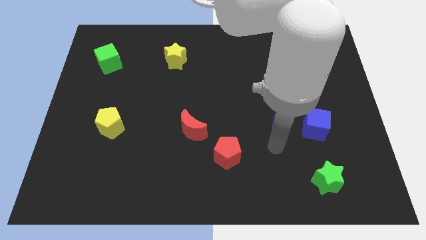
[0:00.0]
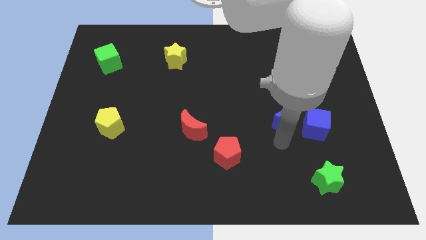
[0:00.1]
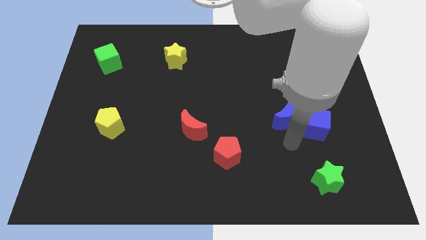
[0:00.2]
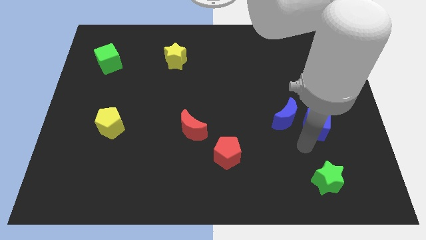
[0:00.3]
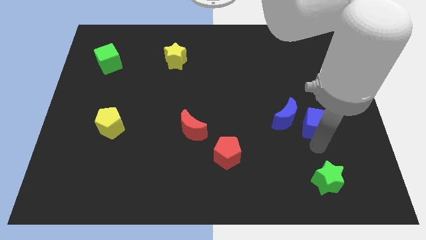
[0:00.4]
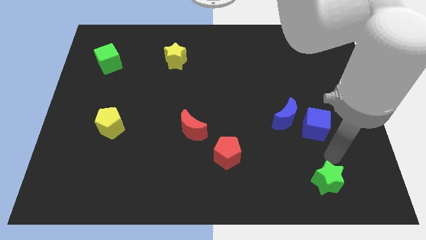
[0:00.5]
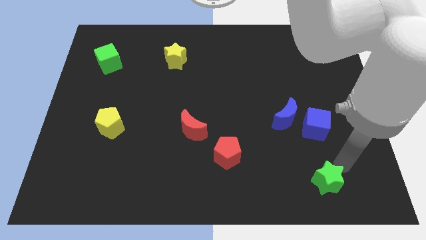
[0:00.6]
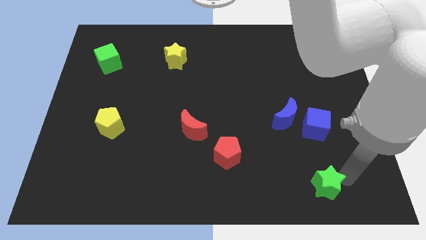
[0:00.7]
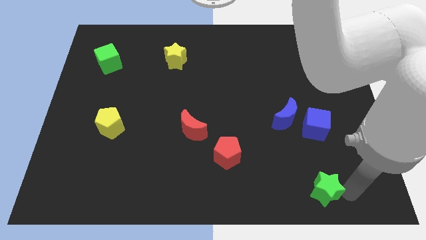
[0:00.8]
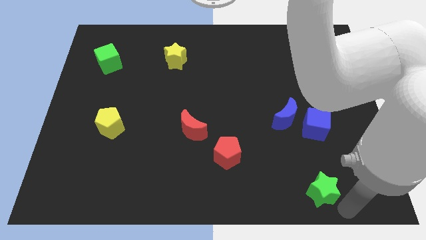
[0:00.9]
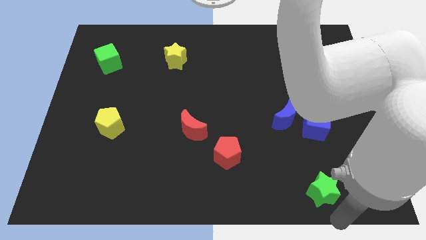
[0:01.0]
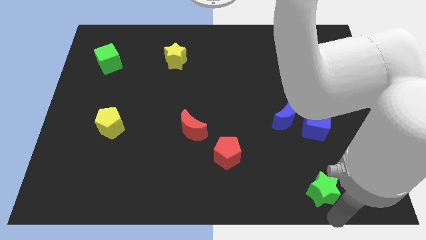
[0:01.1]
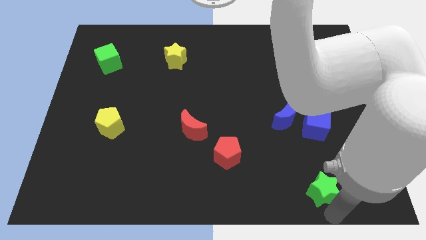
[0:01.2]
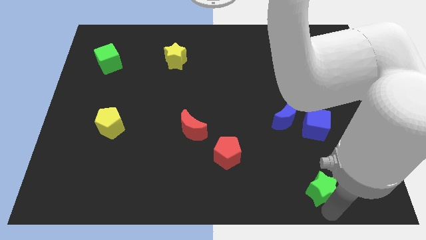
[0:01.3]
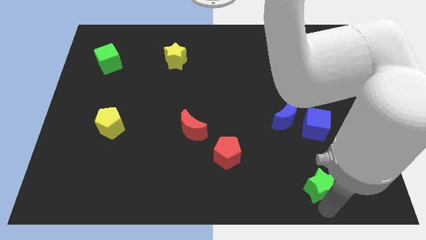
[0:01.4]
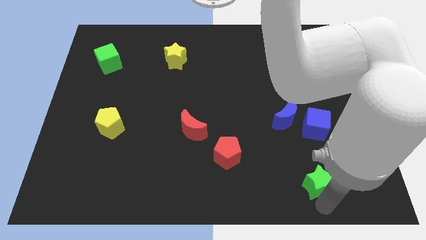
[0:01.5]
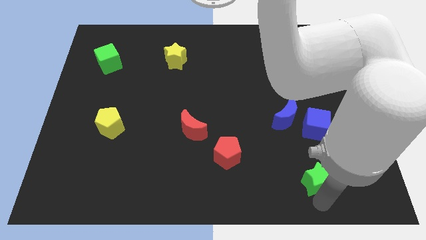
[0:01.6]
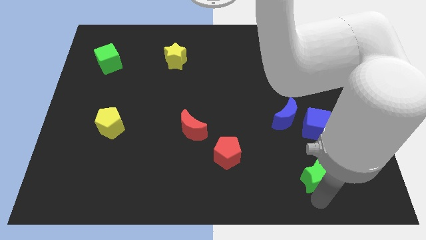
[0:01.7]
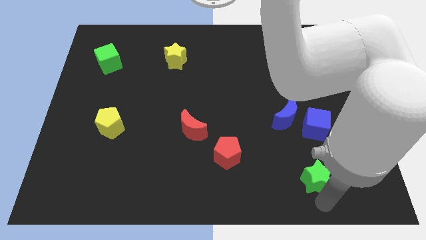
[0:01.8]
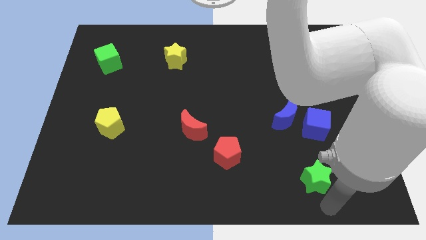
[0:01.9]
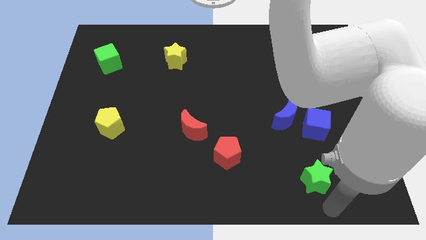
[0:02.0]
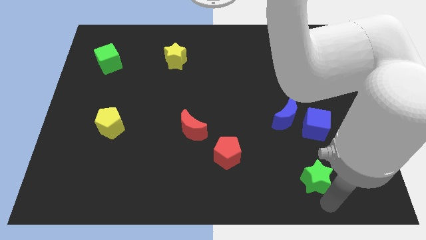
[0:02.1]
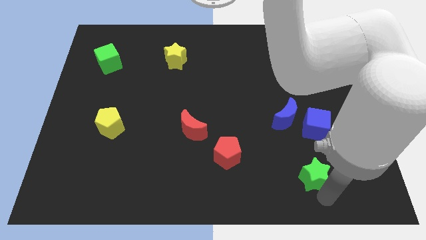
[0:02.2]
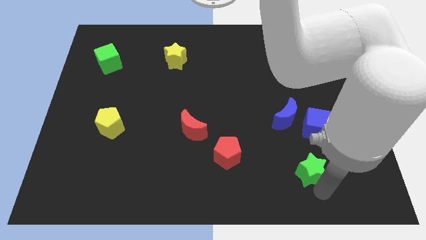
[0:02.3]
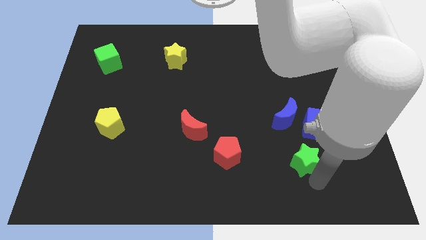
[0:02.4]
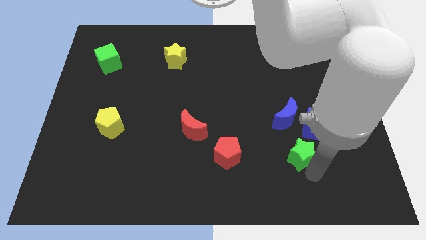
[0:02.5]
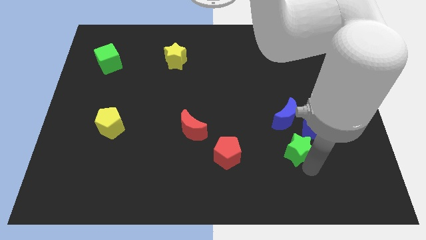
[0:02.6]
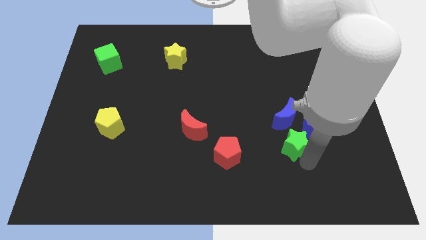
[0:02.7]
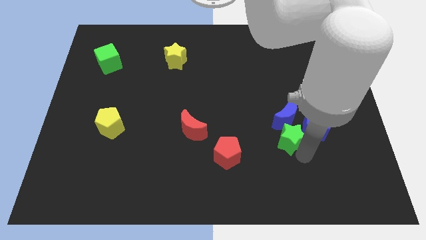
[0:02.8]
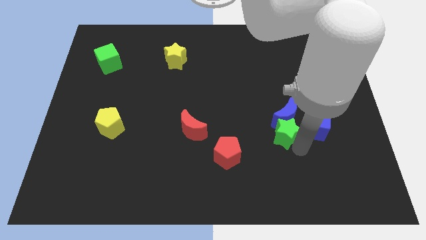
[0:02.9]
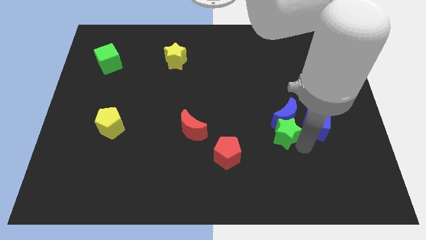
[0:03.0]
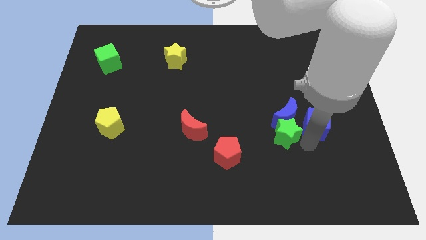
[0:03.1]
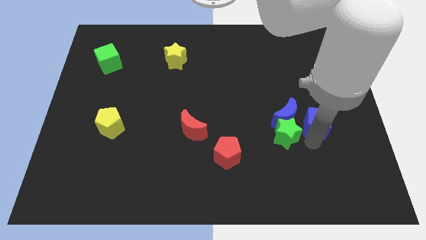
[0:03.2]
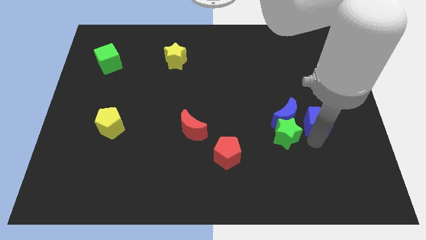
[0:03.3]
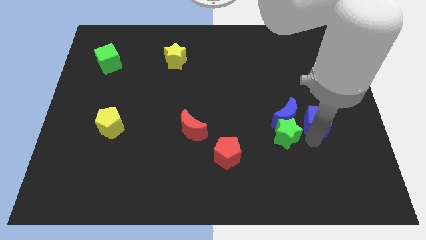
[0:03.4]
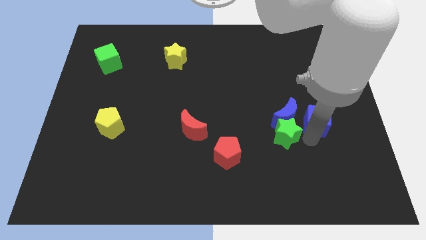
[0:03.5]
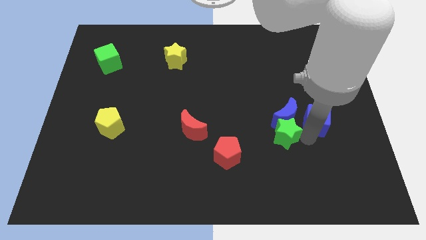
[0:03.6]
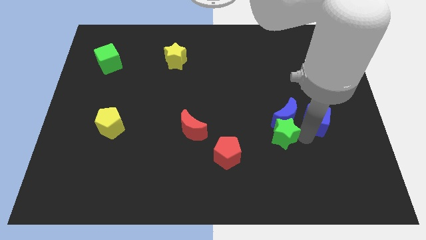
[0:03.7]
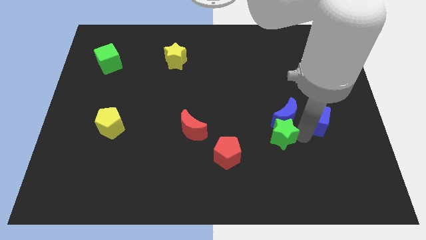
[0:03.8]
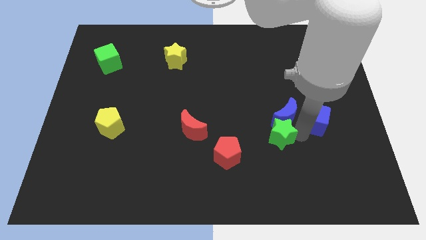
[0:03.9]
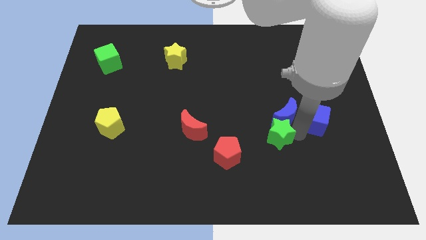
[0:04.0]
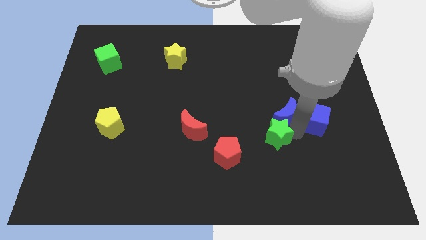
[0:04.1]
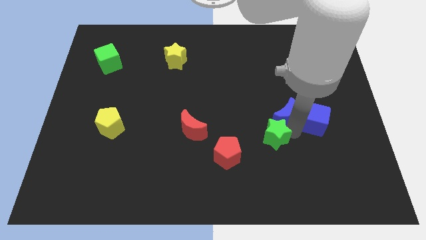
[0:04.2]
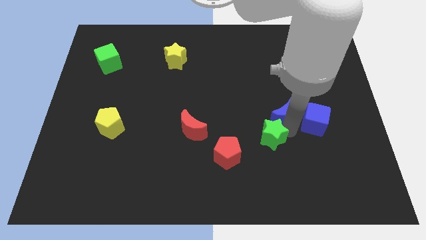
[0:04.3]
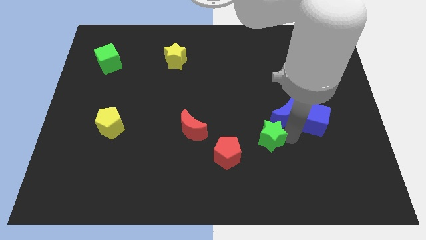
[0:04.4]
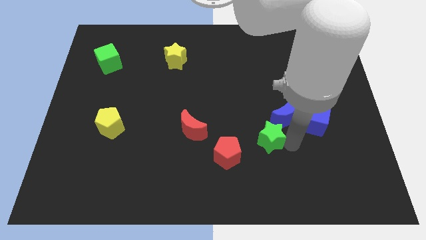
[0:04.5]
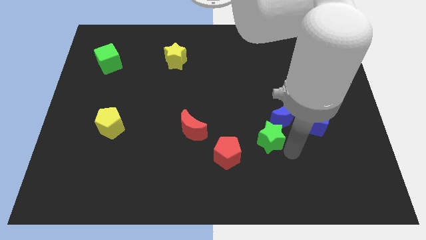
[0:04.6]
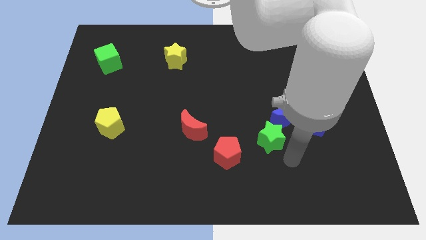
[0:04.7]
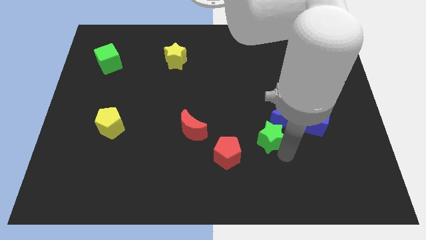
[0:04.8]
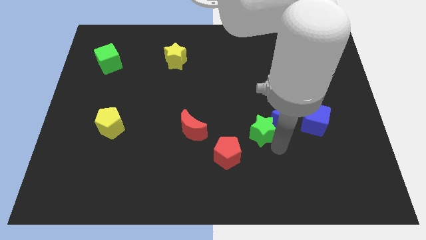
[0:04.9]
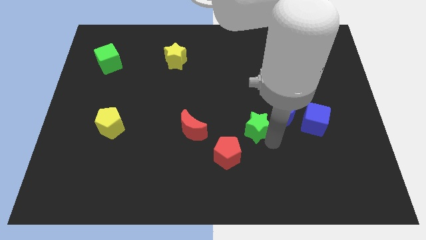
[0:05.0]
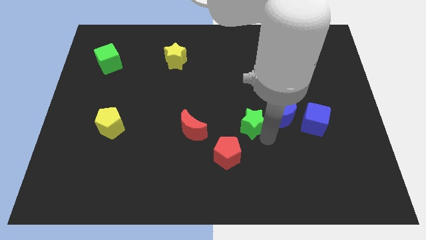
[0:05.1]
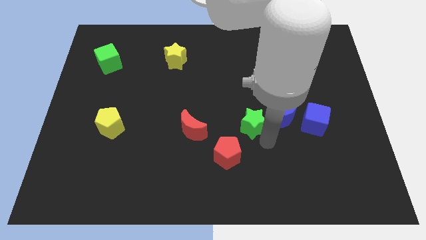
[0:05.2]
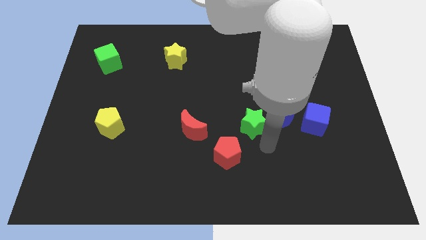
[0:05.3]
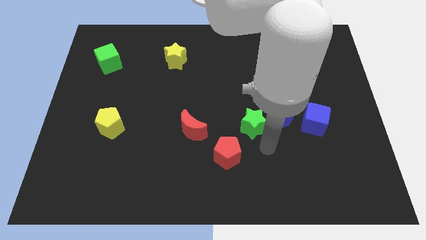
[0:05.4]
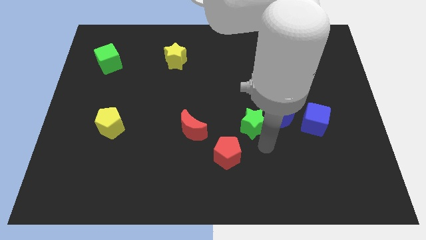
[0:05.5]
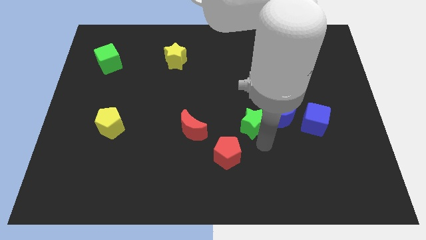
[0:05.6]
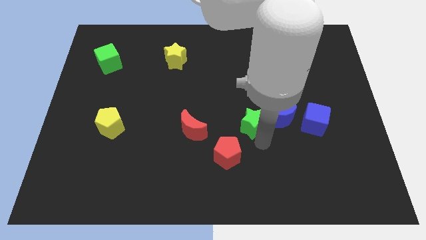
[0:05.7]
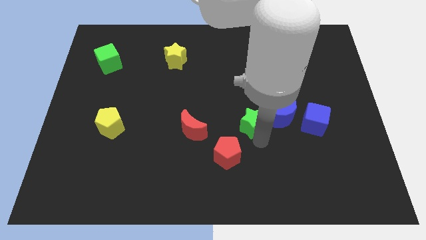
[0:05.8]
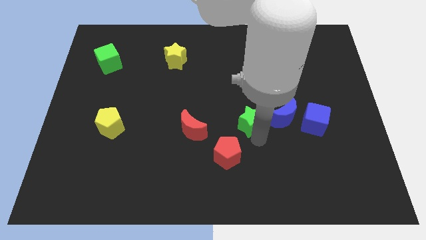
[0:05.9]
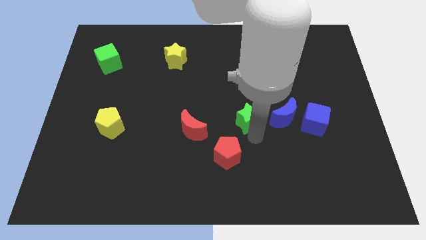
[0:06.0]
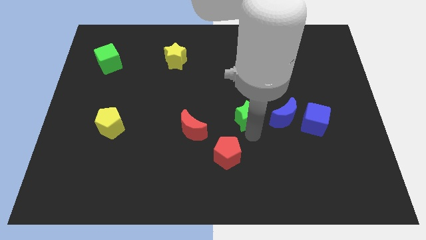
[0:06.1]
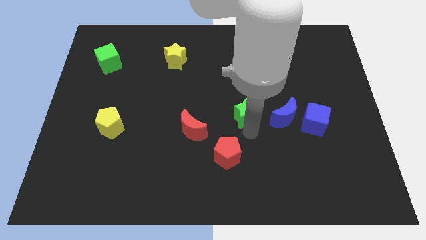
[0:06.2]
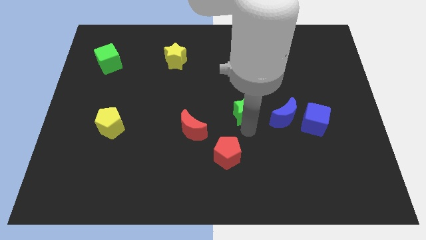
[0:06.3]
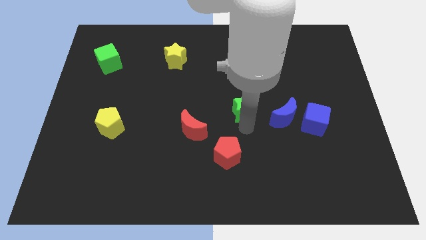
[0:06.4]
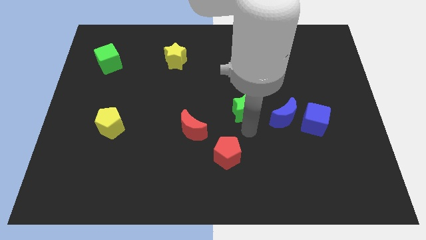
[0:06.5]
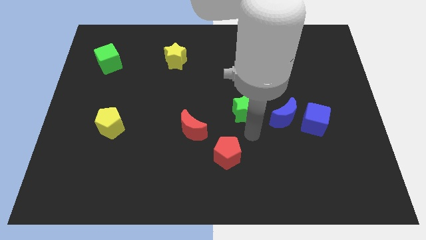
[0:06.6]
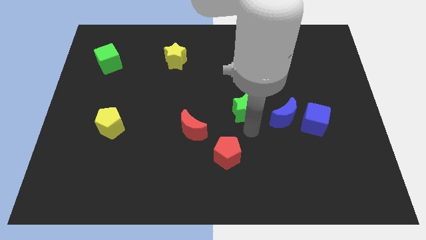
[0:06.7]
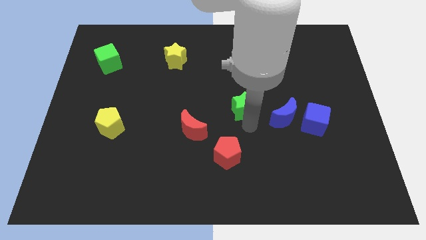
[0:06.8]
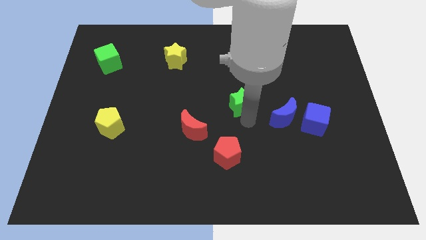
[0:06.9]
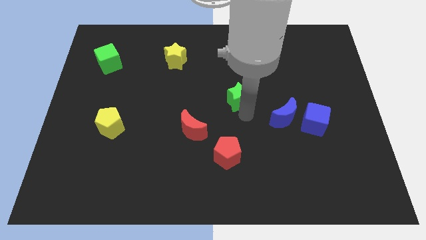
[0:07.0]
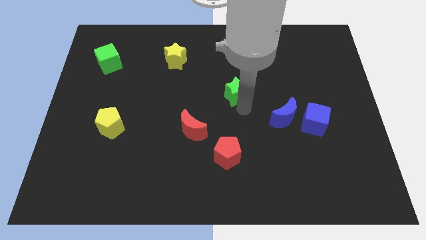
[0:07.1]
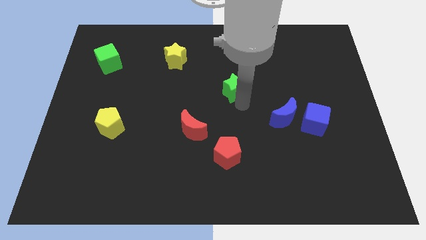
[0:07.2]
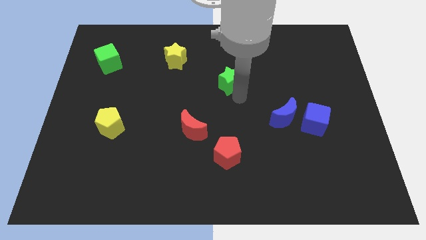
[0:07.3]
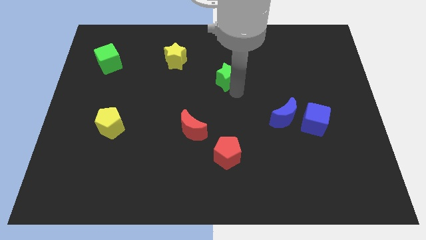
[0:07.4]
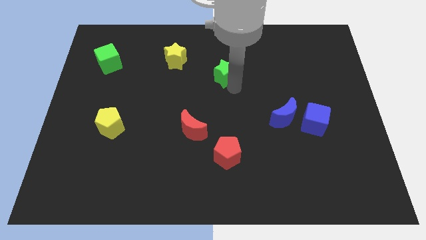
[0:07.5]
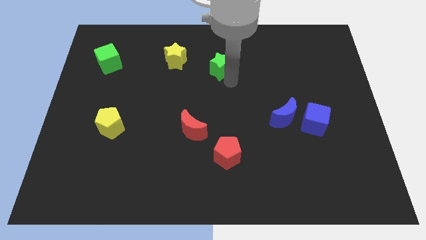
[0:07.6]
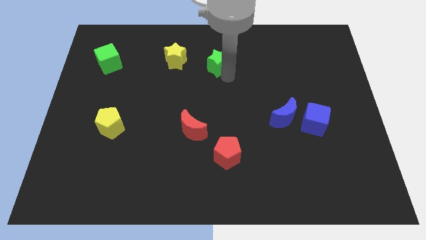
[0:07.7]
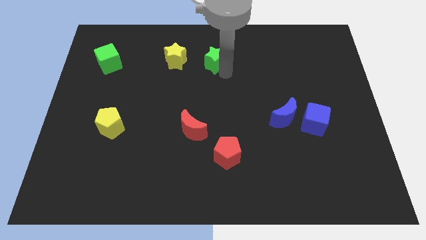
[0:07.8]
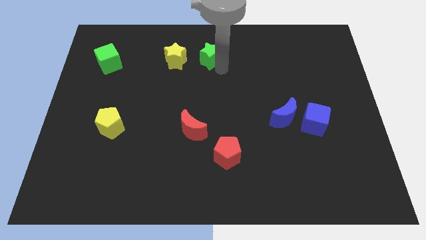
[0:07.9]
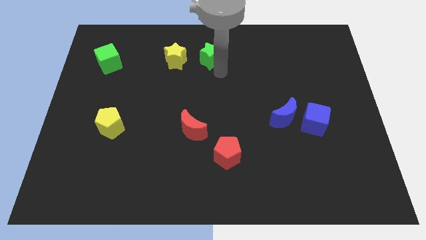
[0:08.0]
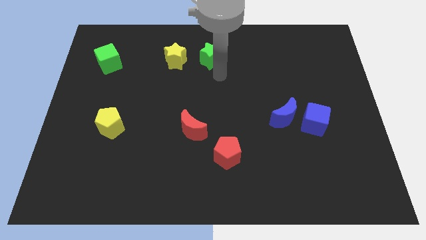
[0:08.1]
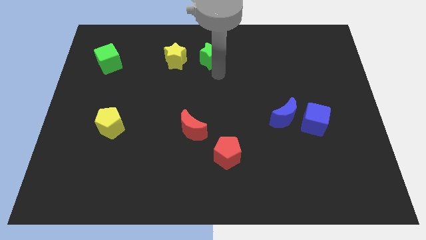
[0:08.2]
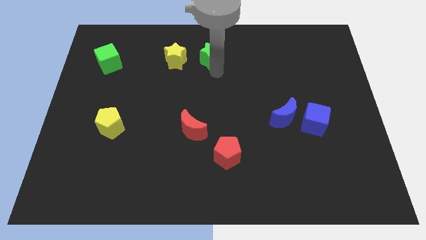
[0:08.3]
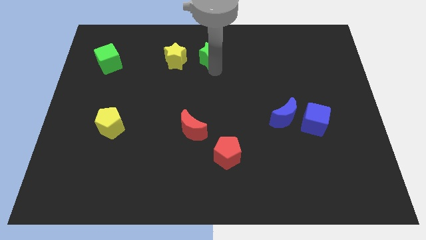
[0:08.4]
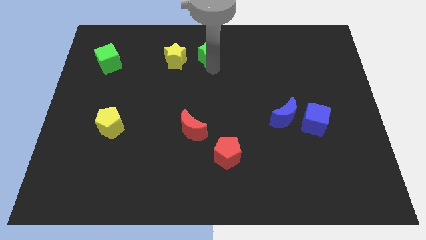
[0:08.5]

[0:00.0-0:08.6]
push the green star to the top side
